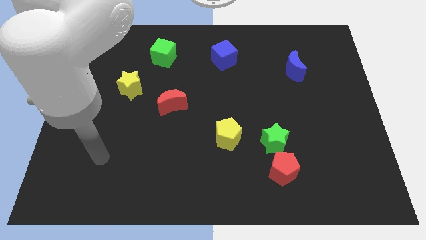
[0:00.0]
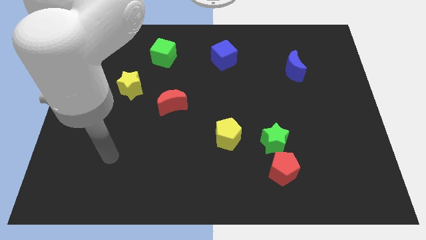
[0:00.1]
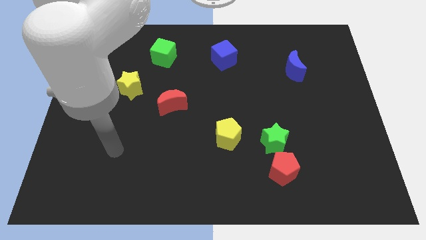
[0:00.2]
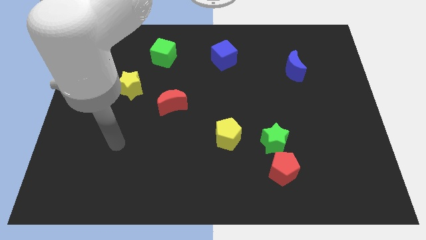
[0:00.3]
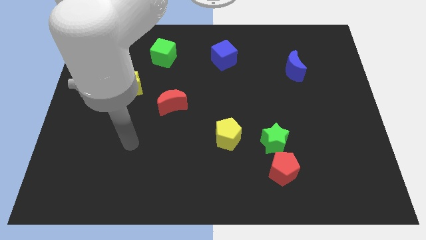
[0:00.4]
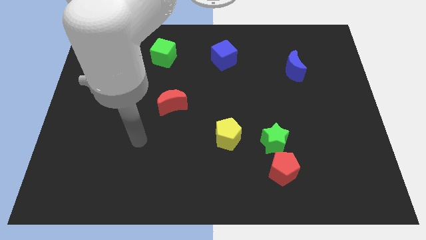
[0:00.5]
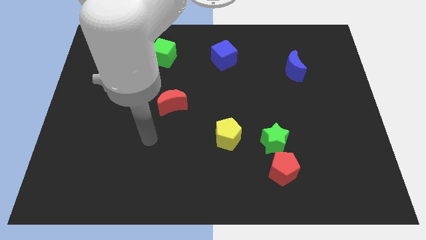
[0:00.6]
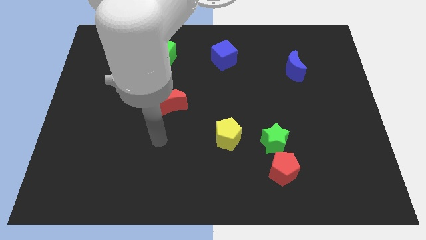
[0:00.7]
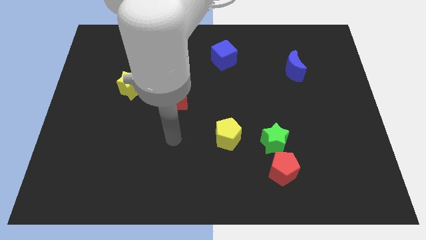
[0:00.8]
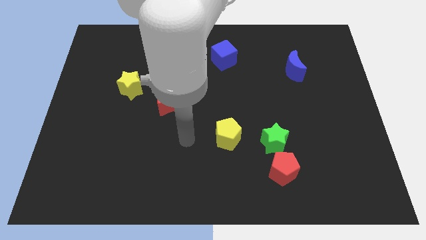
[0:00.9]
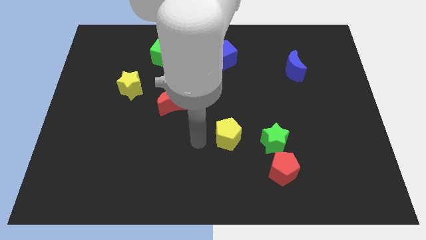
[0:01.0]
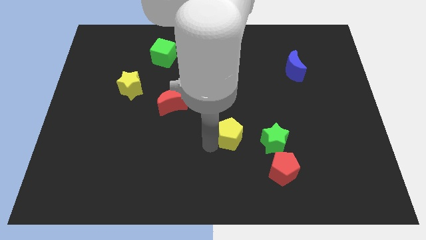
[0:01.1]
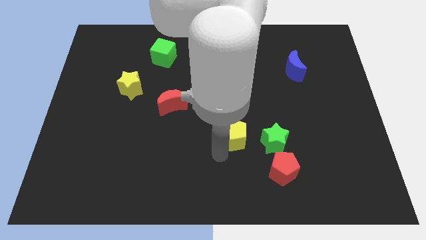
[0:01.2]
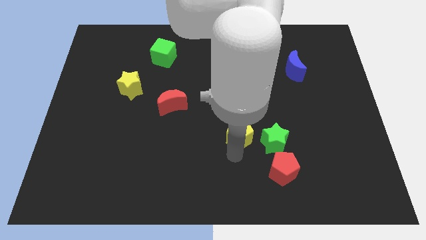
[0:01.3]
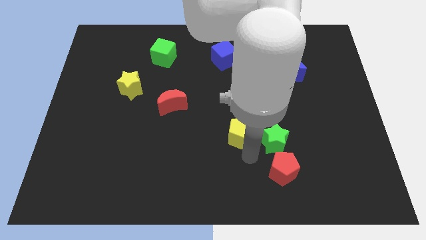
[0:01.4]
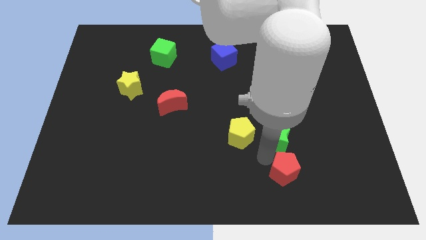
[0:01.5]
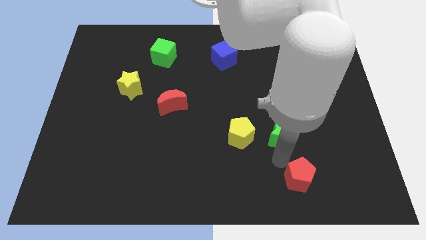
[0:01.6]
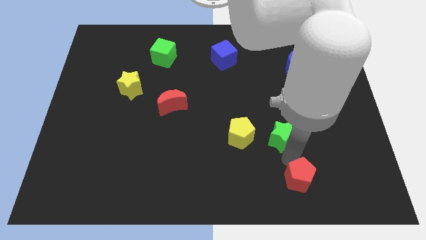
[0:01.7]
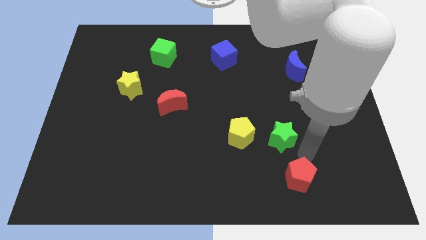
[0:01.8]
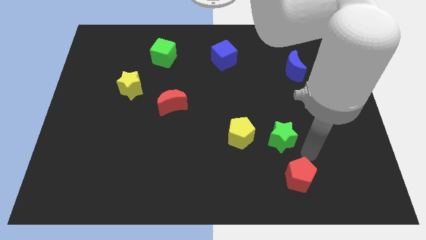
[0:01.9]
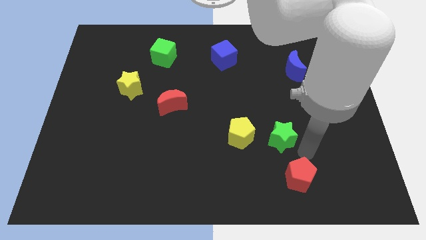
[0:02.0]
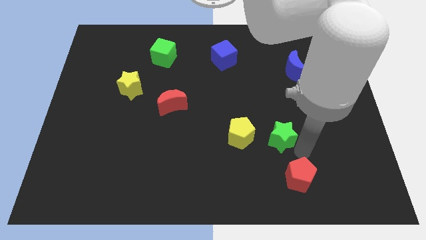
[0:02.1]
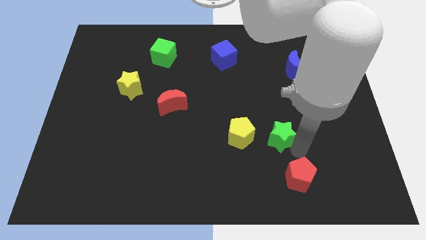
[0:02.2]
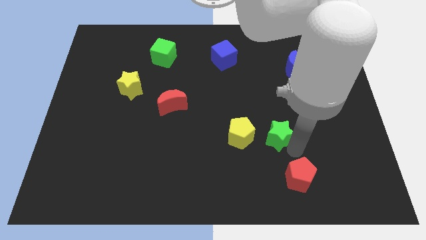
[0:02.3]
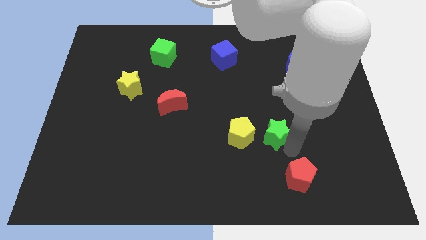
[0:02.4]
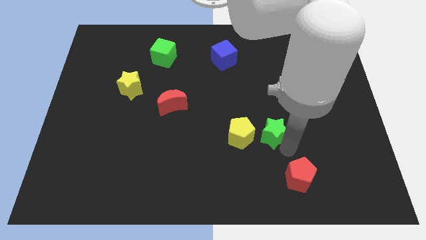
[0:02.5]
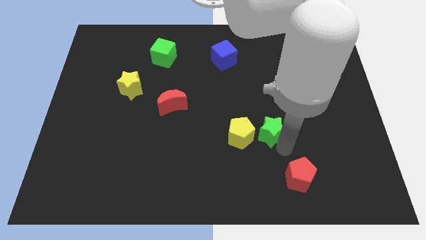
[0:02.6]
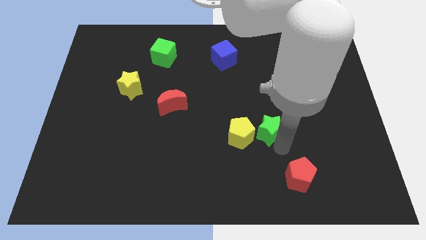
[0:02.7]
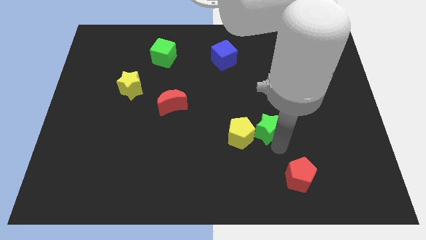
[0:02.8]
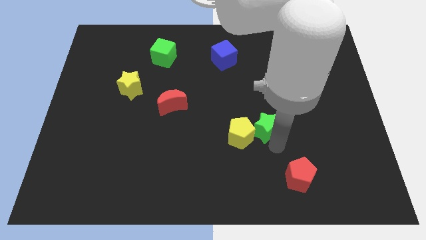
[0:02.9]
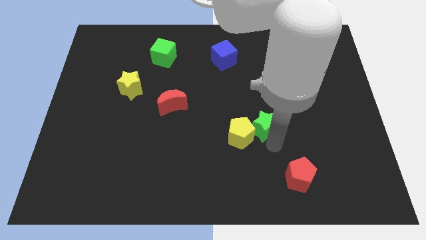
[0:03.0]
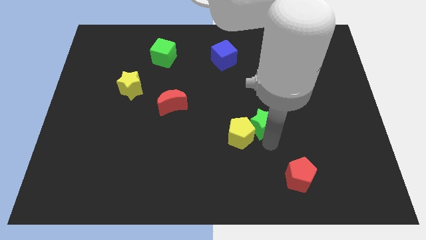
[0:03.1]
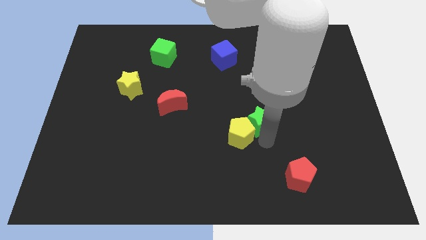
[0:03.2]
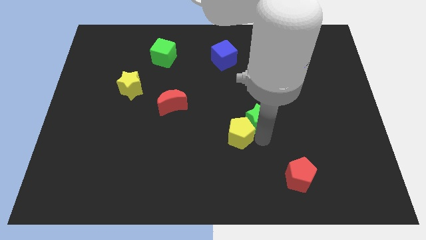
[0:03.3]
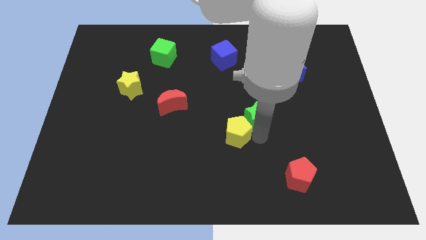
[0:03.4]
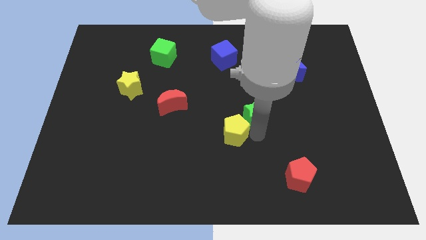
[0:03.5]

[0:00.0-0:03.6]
slide the green star a bit diagonally upwards and to the left

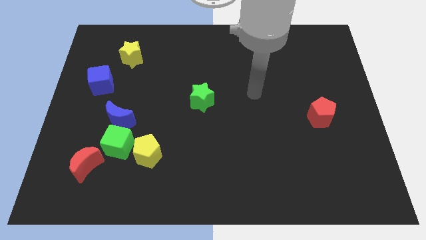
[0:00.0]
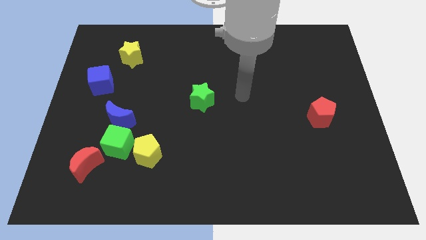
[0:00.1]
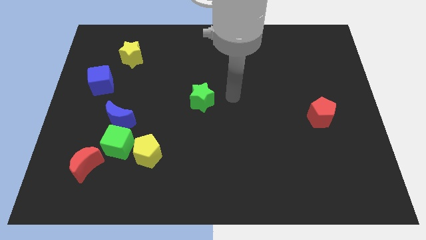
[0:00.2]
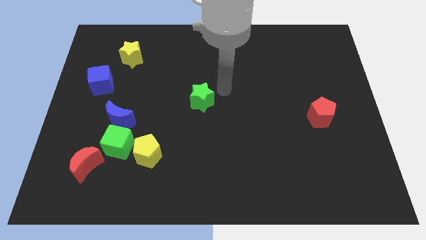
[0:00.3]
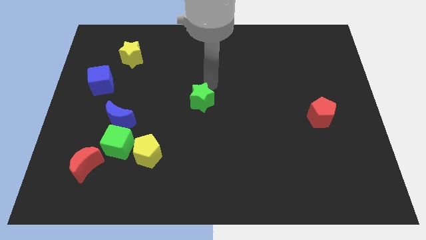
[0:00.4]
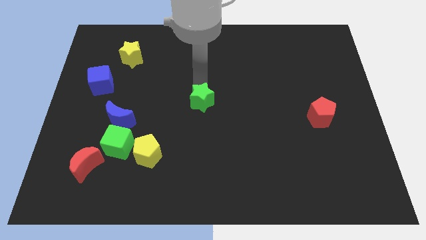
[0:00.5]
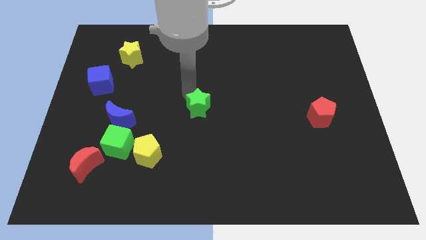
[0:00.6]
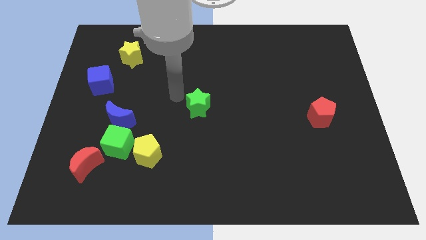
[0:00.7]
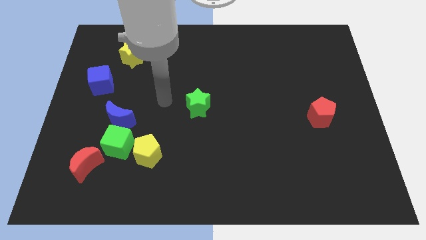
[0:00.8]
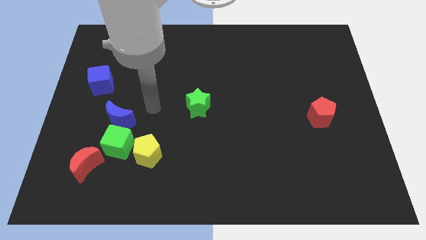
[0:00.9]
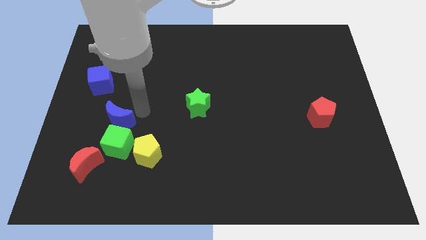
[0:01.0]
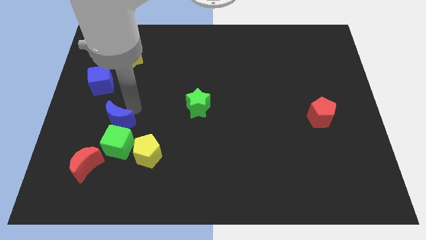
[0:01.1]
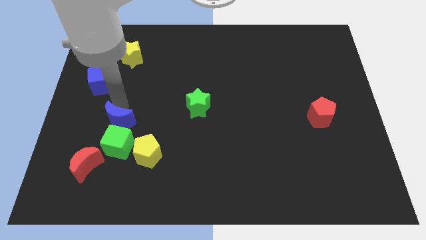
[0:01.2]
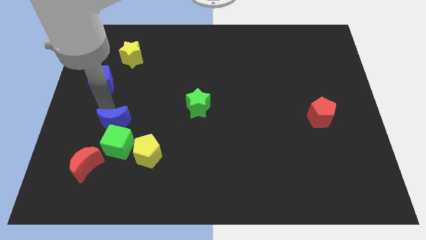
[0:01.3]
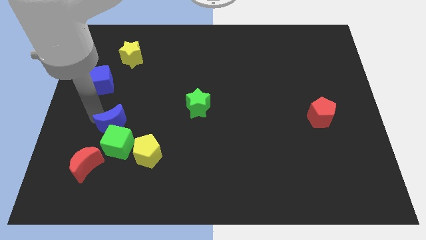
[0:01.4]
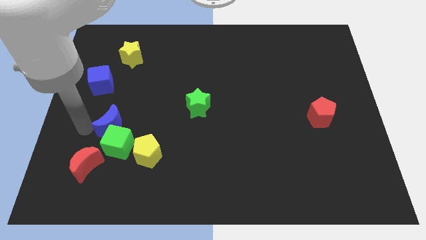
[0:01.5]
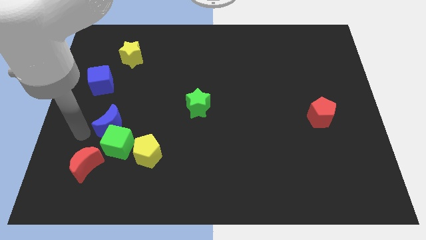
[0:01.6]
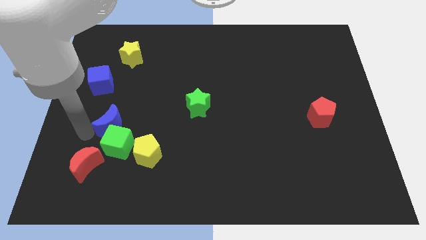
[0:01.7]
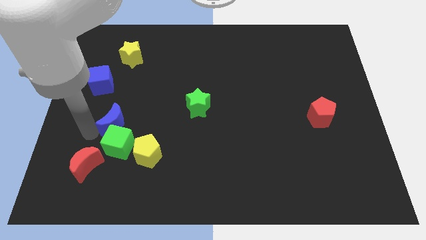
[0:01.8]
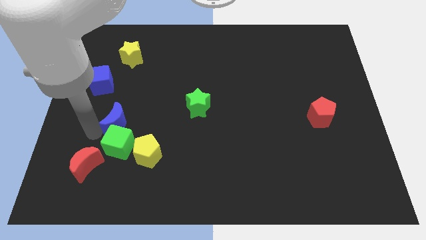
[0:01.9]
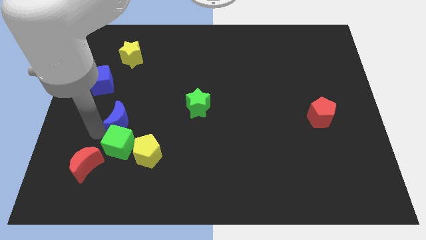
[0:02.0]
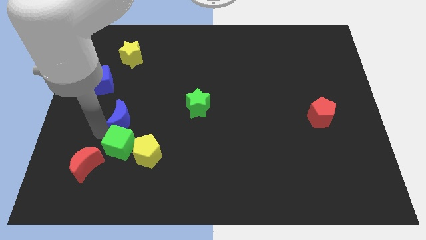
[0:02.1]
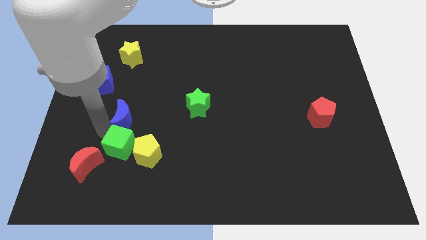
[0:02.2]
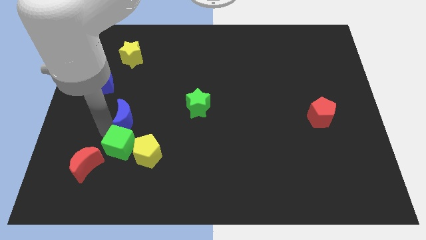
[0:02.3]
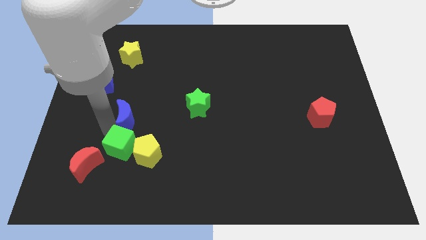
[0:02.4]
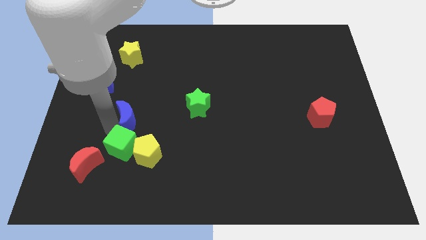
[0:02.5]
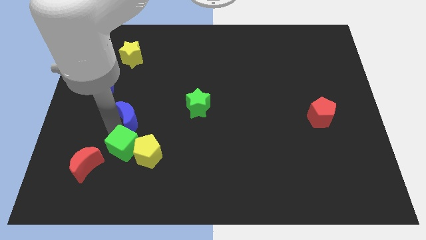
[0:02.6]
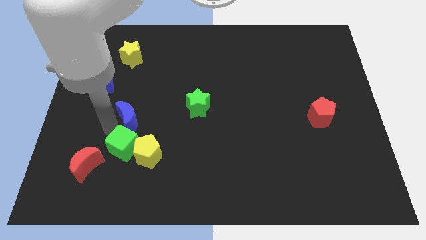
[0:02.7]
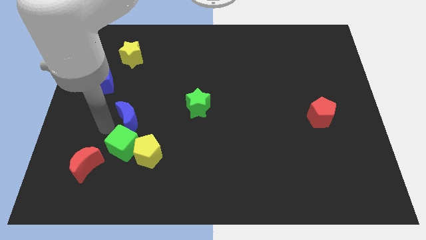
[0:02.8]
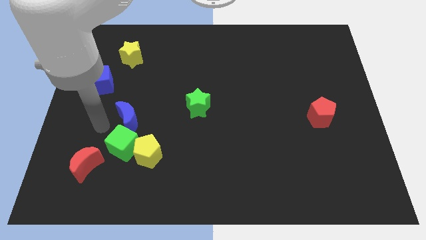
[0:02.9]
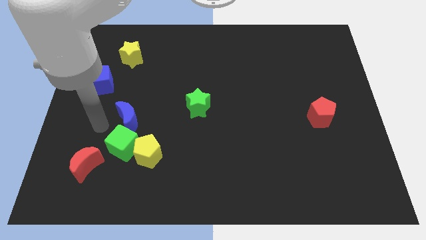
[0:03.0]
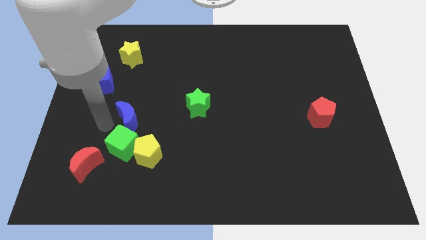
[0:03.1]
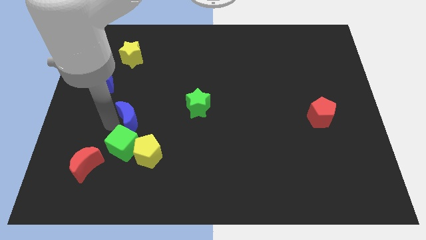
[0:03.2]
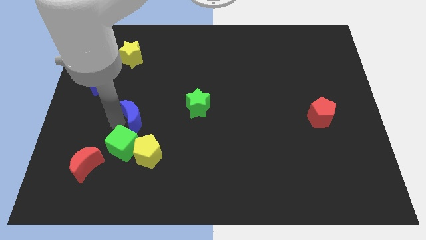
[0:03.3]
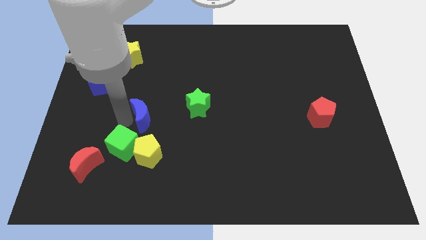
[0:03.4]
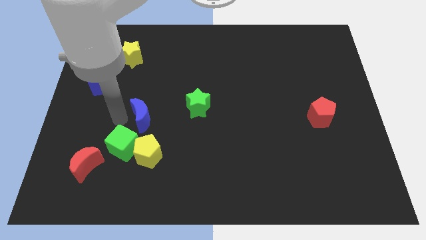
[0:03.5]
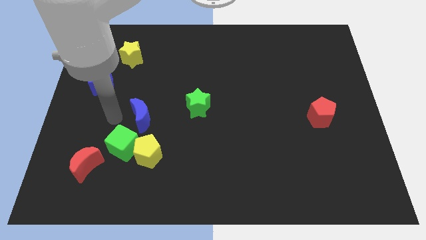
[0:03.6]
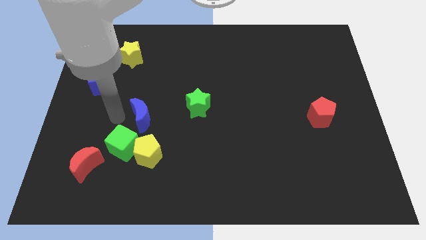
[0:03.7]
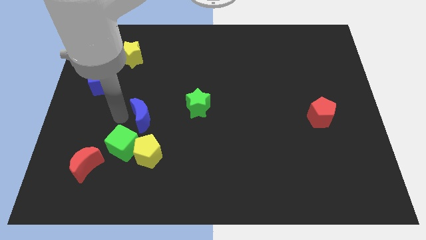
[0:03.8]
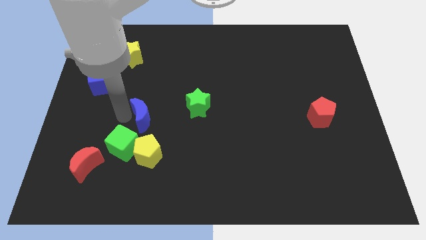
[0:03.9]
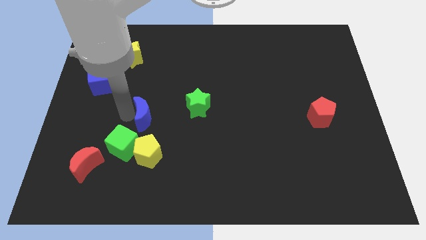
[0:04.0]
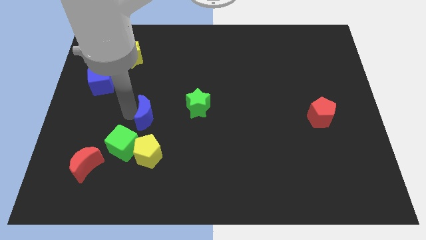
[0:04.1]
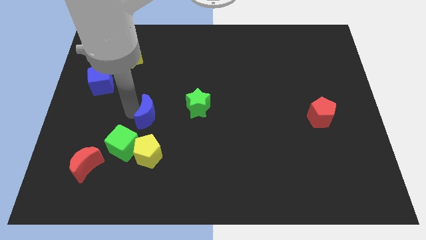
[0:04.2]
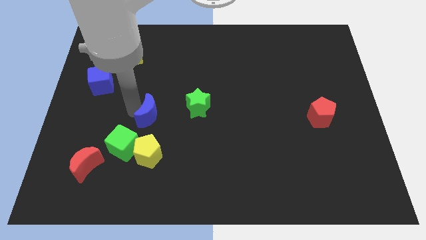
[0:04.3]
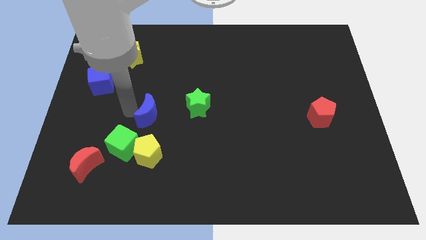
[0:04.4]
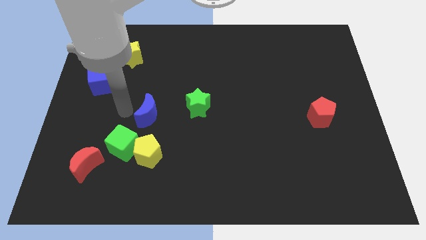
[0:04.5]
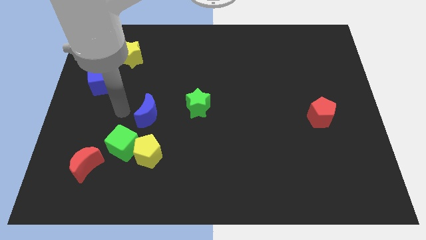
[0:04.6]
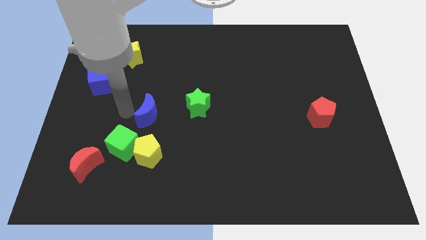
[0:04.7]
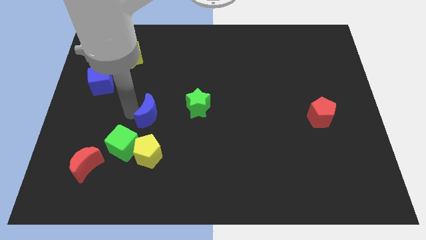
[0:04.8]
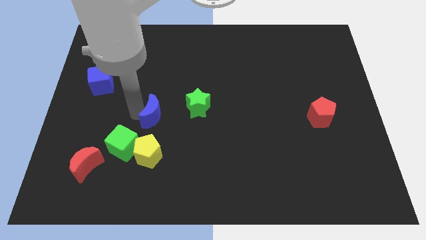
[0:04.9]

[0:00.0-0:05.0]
slightly push the blue moon to the right
